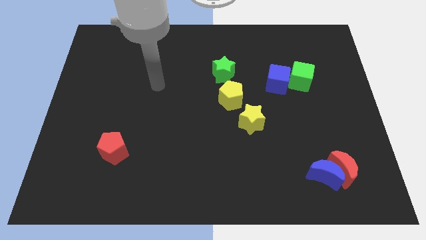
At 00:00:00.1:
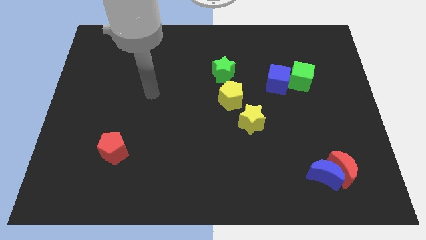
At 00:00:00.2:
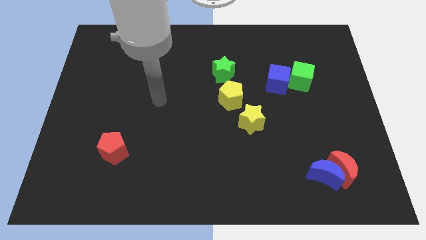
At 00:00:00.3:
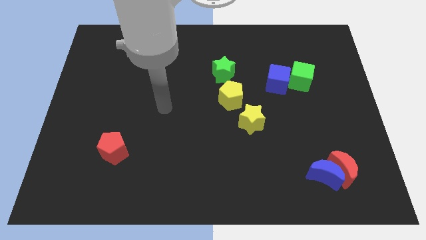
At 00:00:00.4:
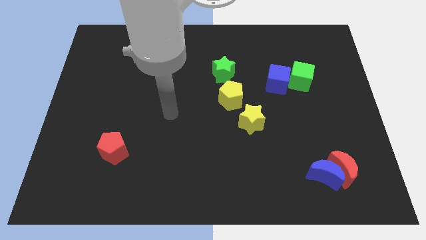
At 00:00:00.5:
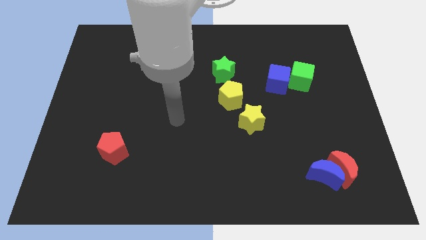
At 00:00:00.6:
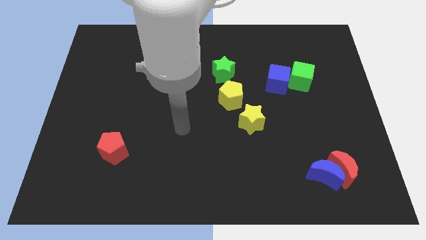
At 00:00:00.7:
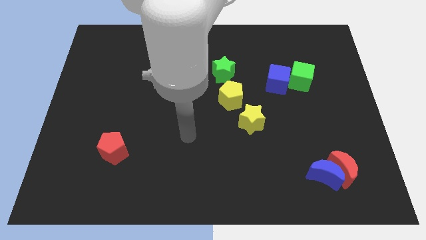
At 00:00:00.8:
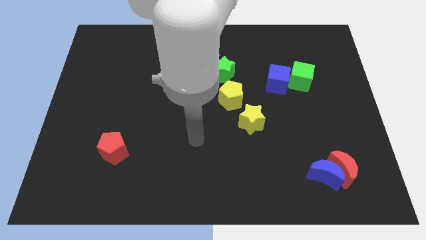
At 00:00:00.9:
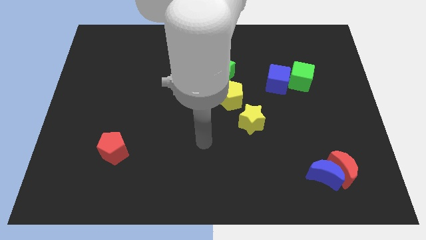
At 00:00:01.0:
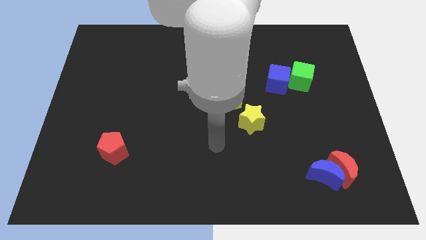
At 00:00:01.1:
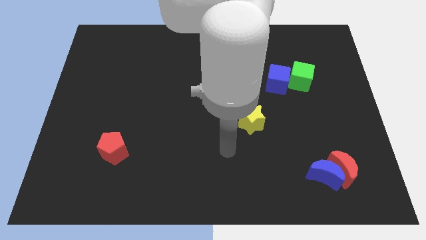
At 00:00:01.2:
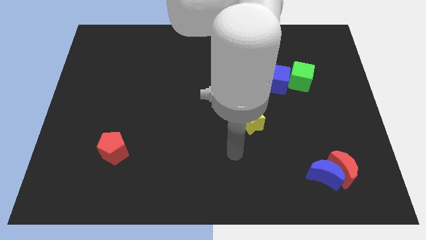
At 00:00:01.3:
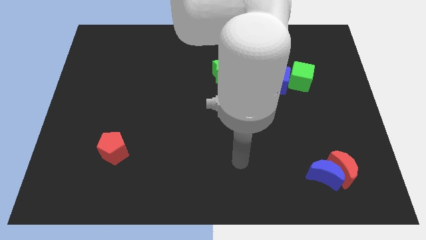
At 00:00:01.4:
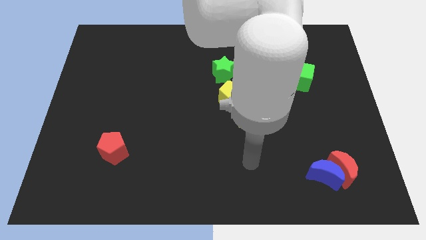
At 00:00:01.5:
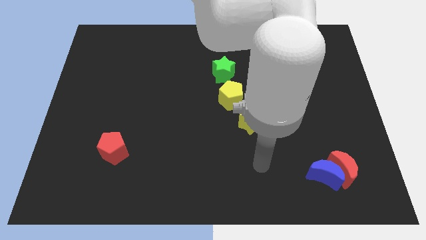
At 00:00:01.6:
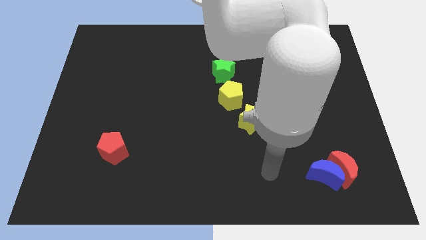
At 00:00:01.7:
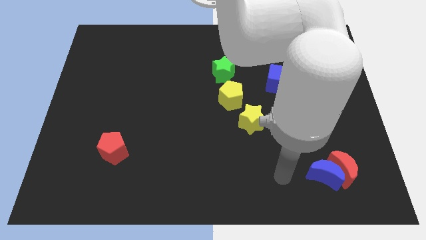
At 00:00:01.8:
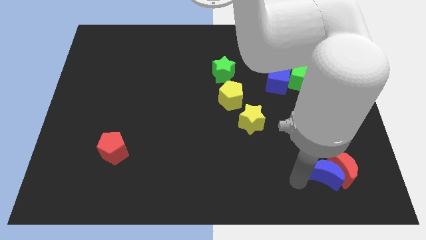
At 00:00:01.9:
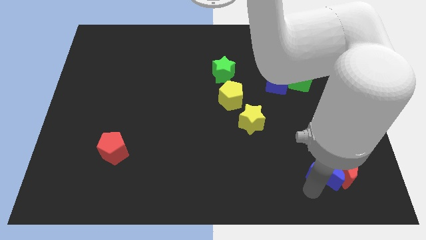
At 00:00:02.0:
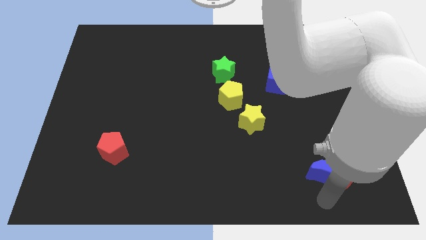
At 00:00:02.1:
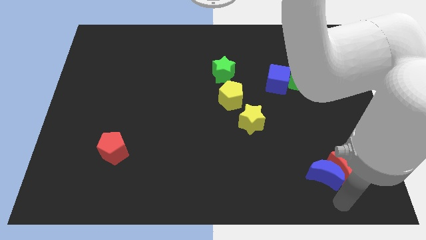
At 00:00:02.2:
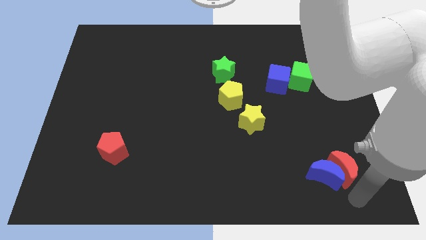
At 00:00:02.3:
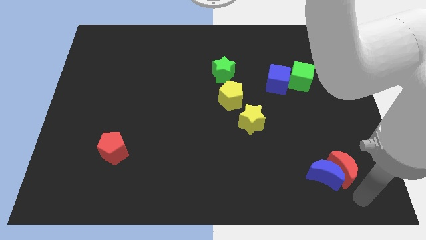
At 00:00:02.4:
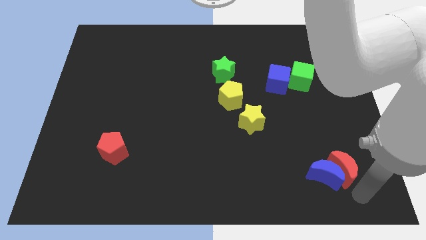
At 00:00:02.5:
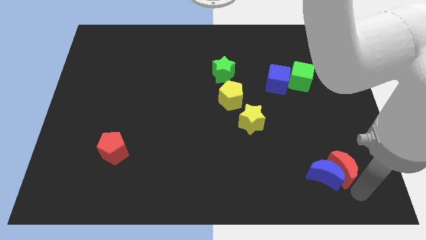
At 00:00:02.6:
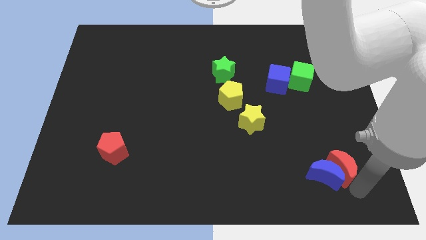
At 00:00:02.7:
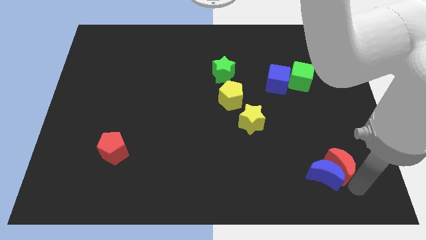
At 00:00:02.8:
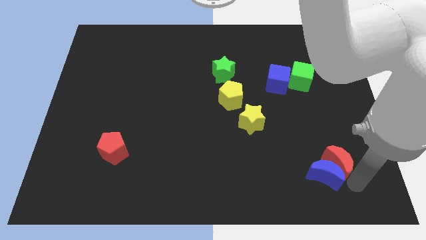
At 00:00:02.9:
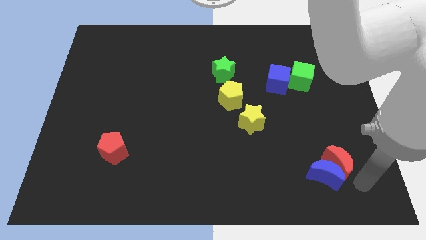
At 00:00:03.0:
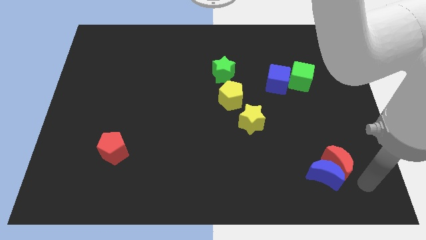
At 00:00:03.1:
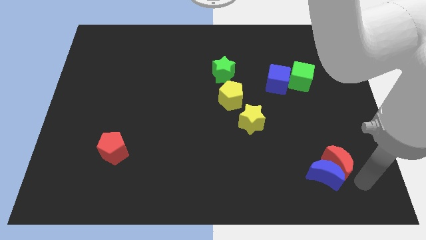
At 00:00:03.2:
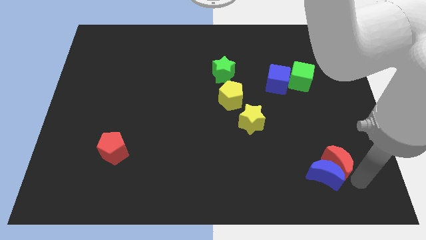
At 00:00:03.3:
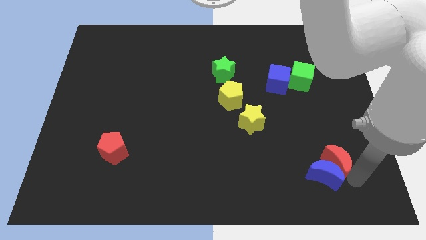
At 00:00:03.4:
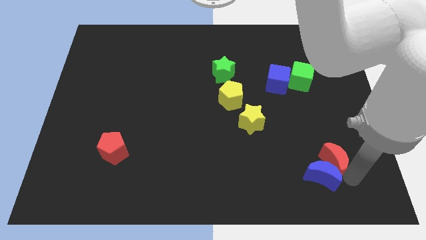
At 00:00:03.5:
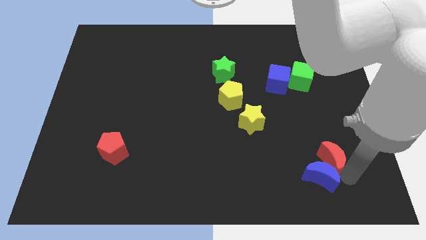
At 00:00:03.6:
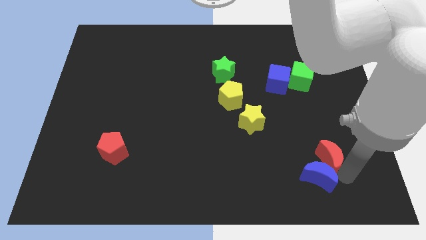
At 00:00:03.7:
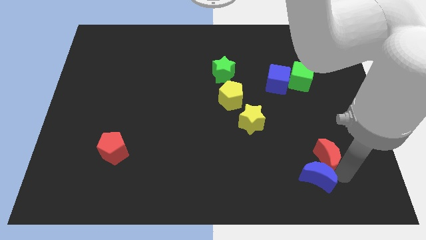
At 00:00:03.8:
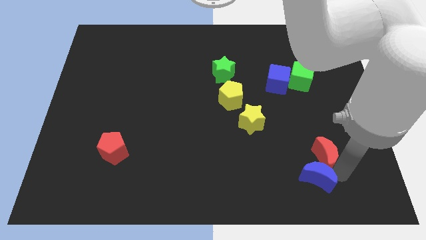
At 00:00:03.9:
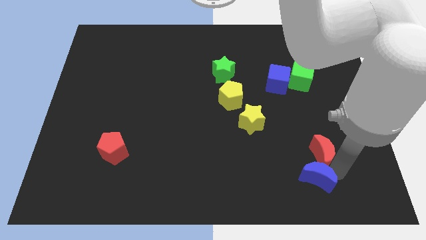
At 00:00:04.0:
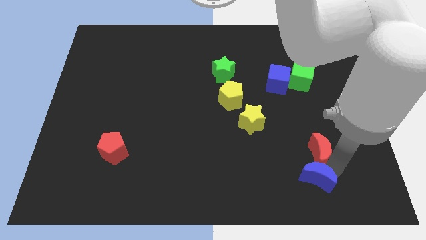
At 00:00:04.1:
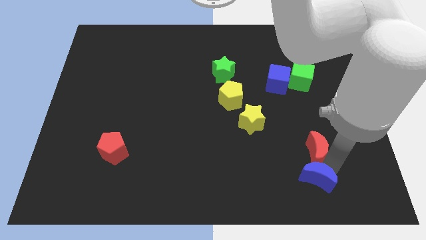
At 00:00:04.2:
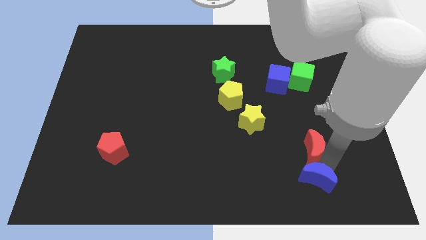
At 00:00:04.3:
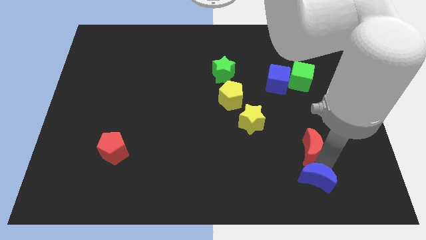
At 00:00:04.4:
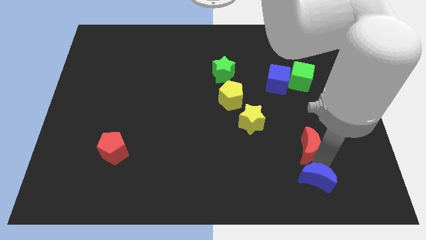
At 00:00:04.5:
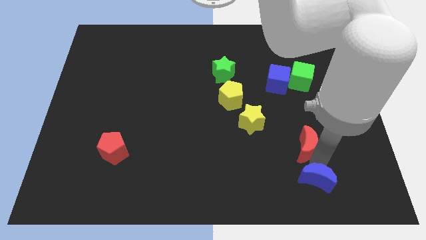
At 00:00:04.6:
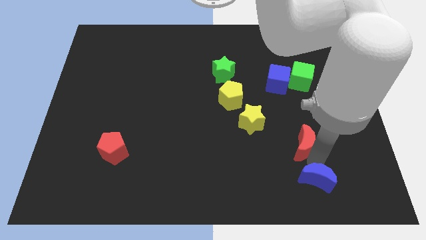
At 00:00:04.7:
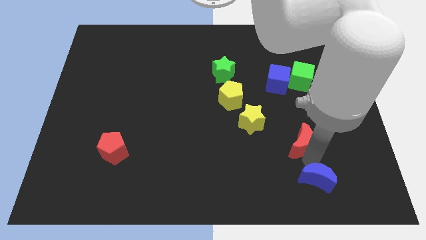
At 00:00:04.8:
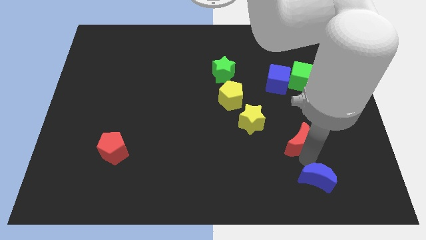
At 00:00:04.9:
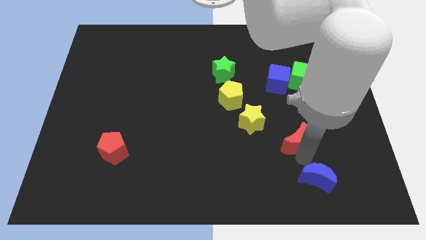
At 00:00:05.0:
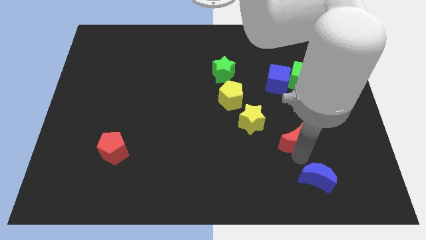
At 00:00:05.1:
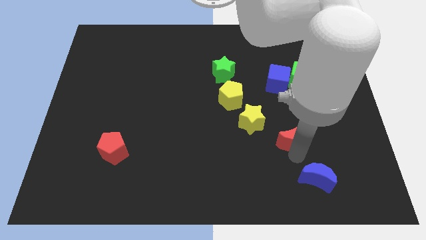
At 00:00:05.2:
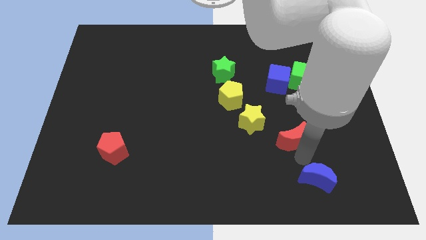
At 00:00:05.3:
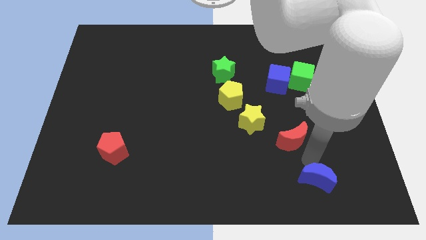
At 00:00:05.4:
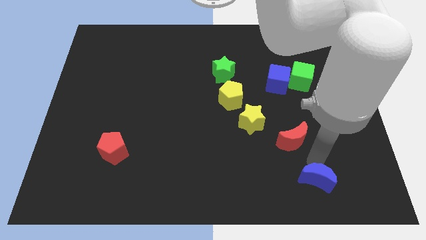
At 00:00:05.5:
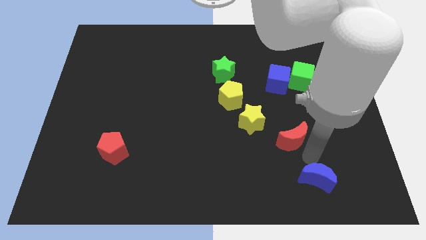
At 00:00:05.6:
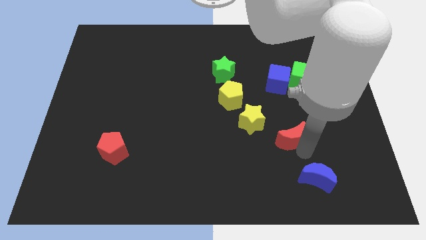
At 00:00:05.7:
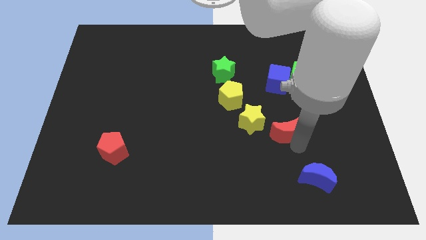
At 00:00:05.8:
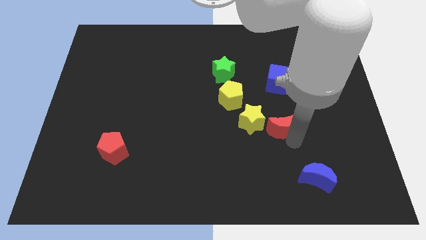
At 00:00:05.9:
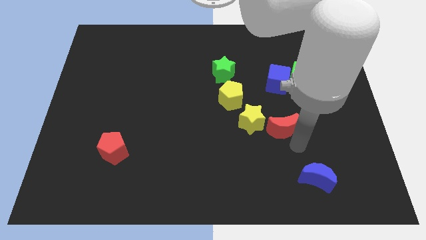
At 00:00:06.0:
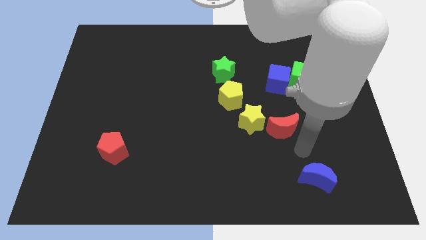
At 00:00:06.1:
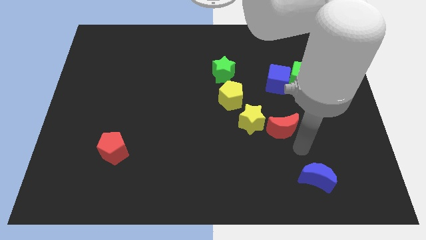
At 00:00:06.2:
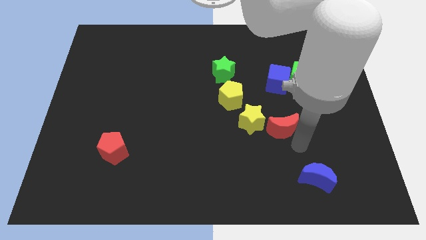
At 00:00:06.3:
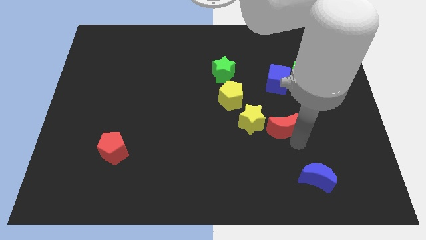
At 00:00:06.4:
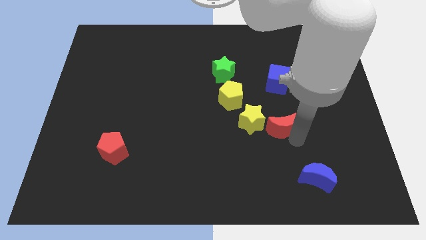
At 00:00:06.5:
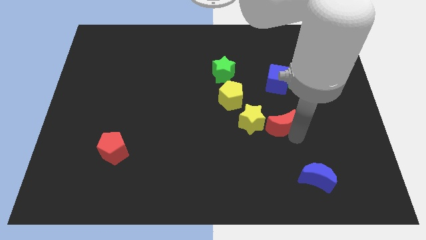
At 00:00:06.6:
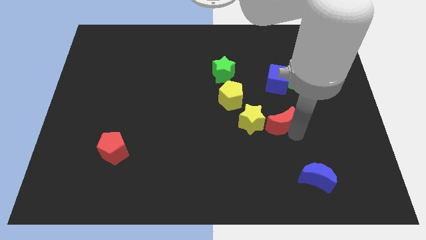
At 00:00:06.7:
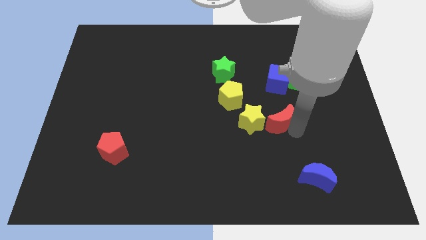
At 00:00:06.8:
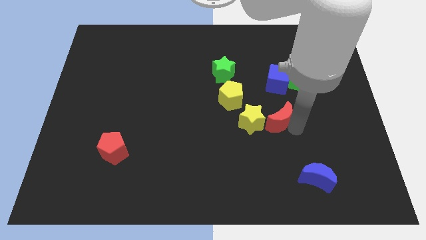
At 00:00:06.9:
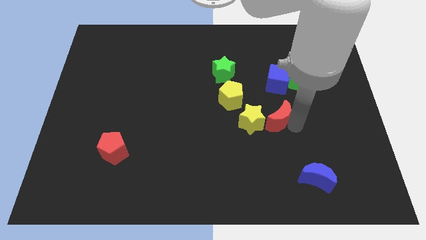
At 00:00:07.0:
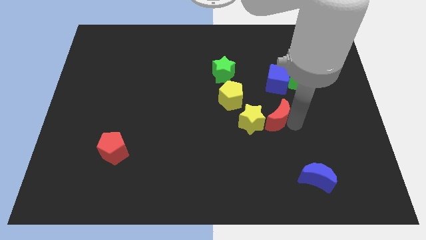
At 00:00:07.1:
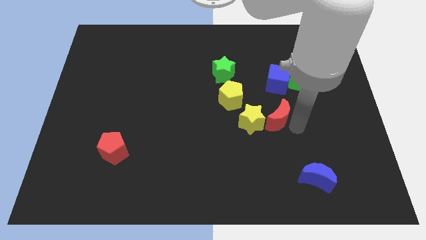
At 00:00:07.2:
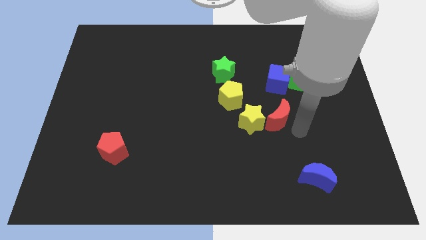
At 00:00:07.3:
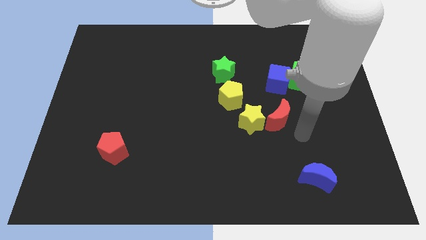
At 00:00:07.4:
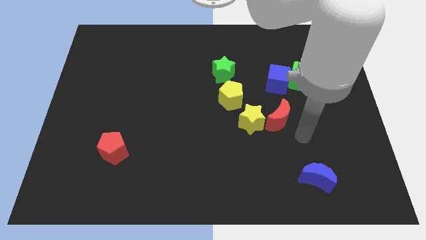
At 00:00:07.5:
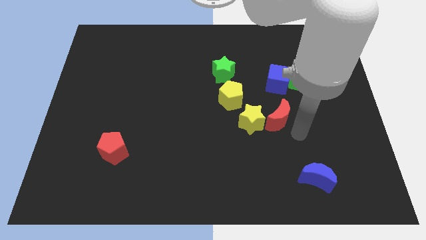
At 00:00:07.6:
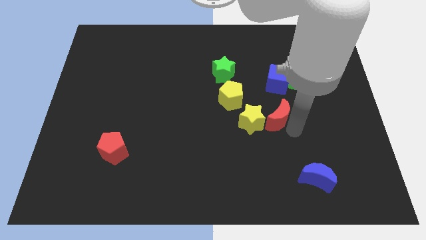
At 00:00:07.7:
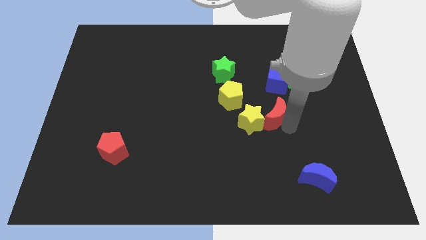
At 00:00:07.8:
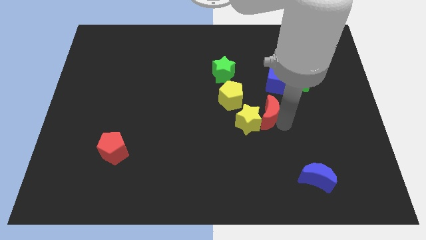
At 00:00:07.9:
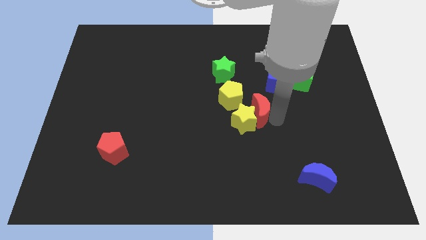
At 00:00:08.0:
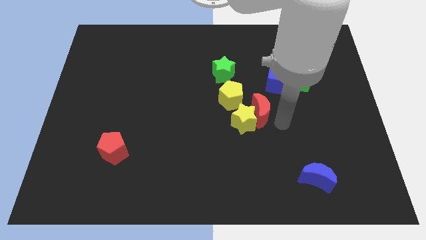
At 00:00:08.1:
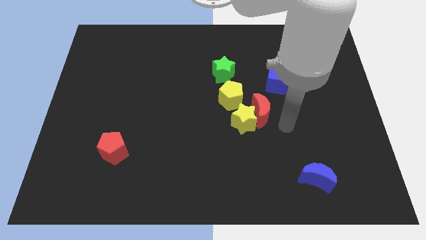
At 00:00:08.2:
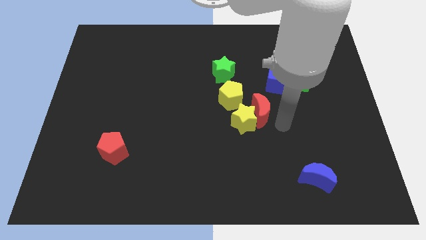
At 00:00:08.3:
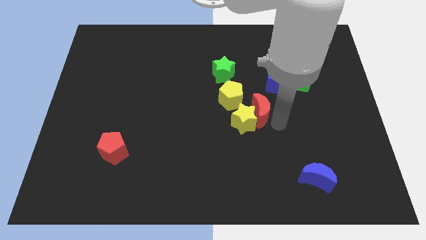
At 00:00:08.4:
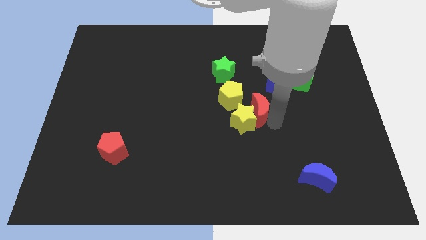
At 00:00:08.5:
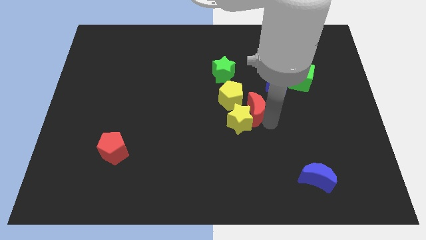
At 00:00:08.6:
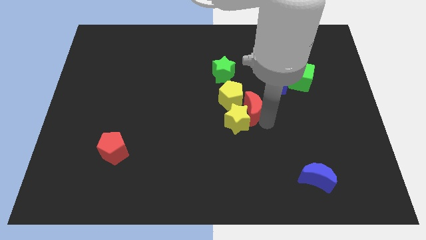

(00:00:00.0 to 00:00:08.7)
put the red moon close to the yellow pentagon
